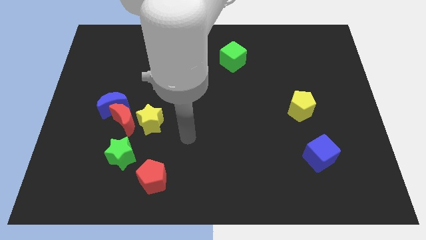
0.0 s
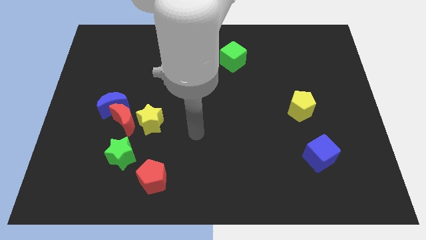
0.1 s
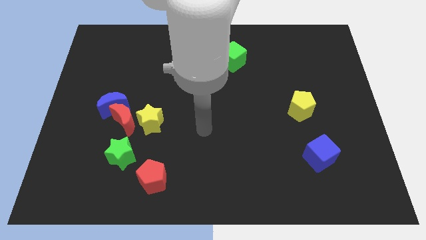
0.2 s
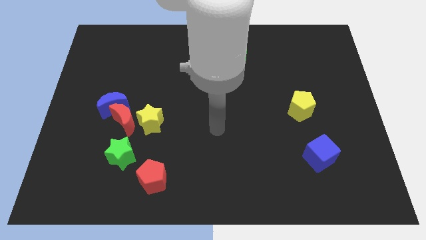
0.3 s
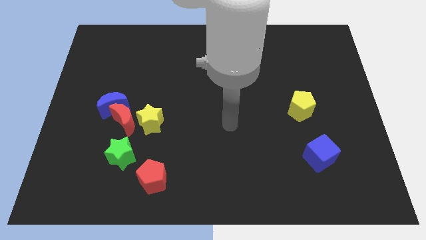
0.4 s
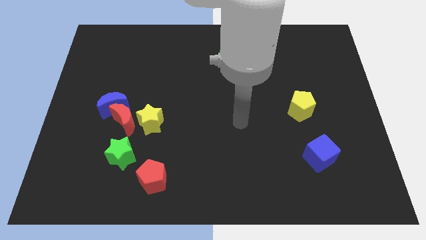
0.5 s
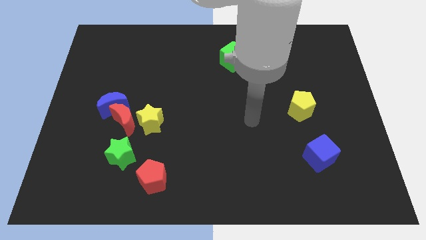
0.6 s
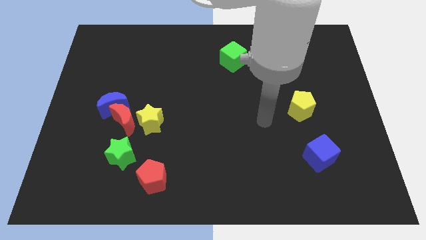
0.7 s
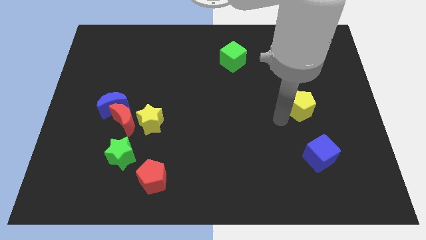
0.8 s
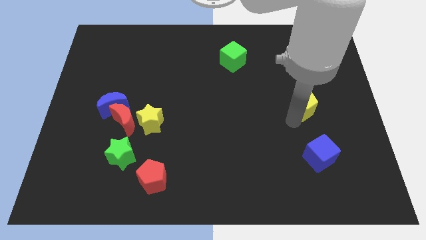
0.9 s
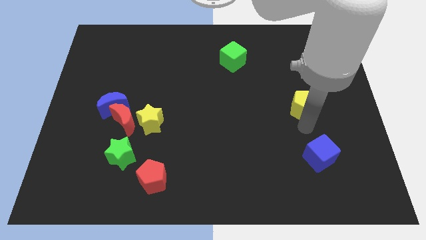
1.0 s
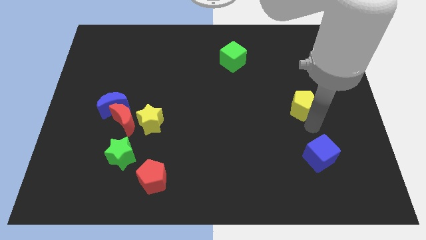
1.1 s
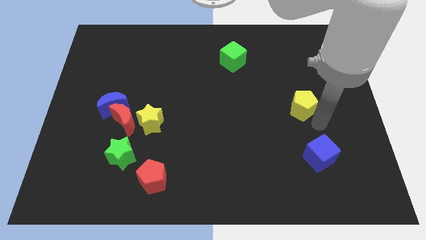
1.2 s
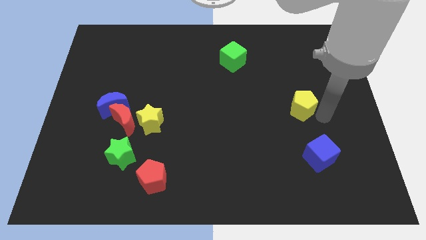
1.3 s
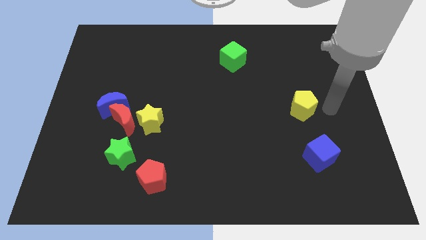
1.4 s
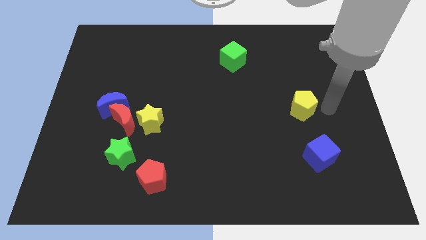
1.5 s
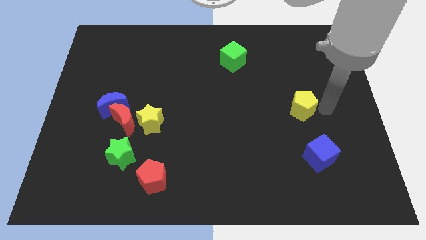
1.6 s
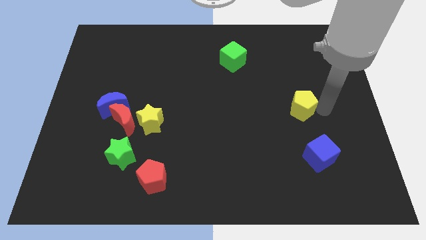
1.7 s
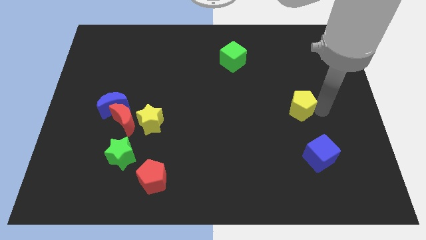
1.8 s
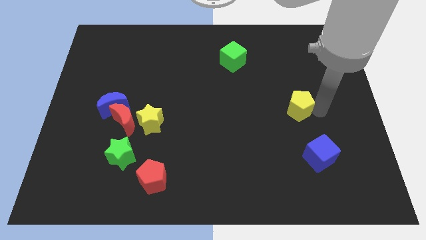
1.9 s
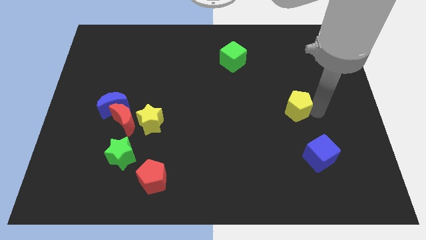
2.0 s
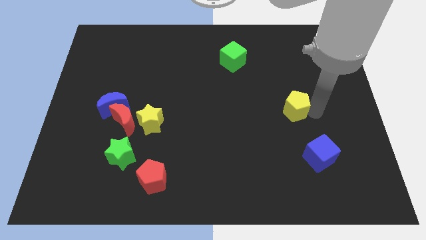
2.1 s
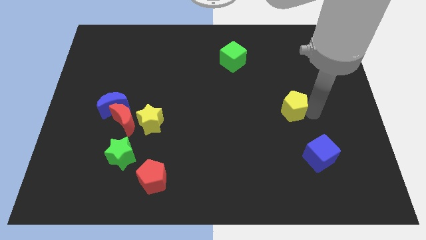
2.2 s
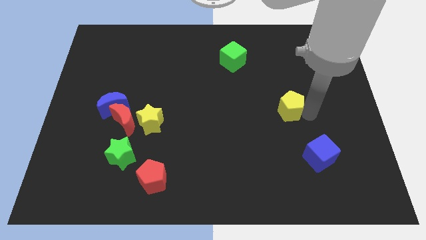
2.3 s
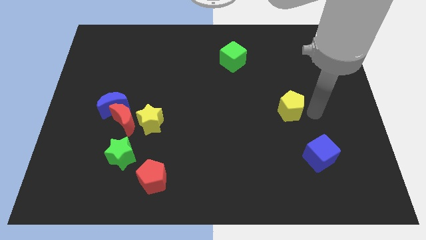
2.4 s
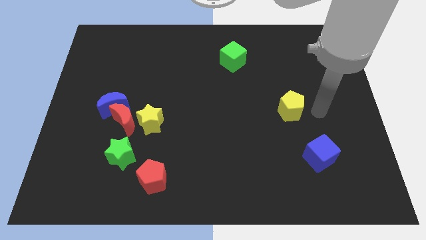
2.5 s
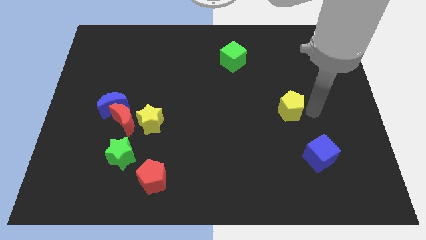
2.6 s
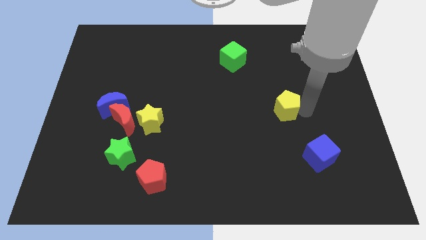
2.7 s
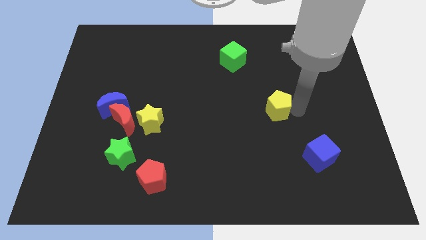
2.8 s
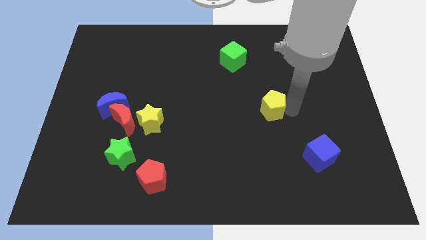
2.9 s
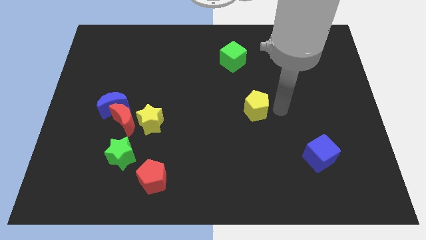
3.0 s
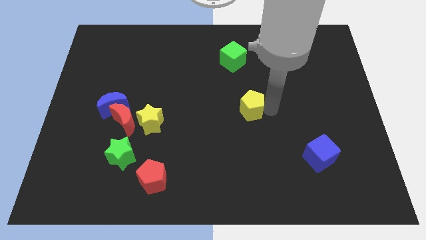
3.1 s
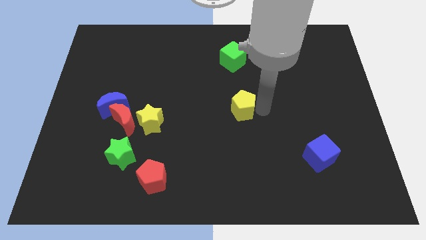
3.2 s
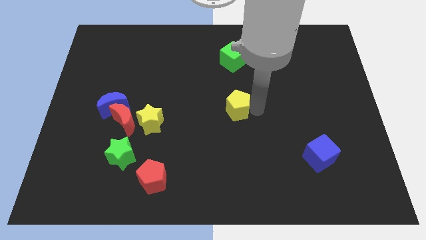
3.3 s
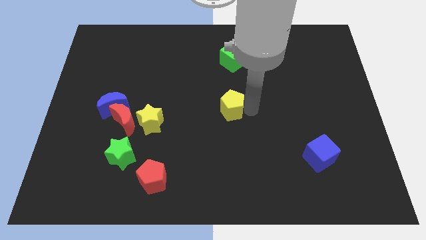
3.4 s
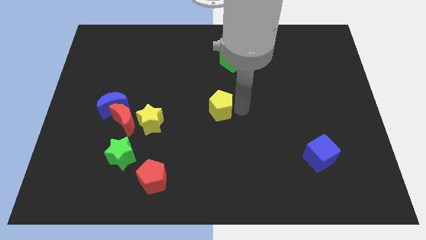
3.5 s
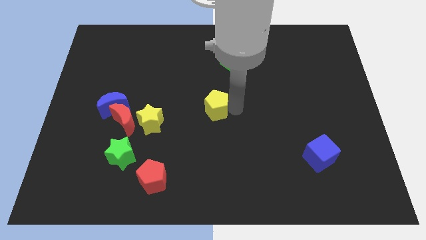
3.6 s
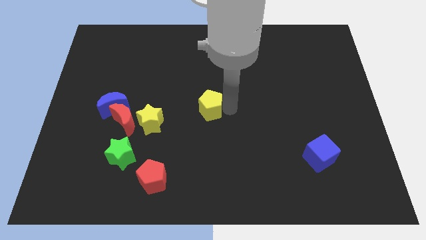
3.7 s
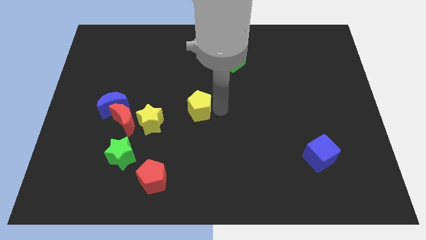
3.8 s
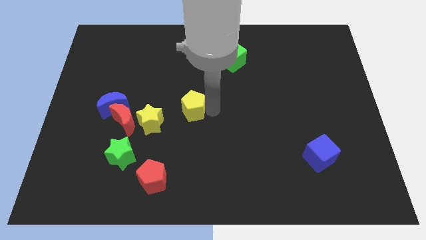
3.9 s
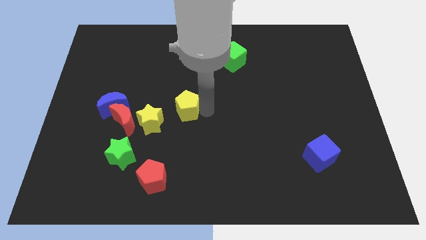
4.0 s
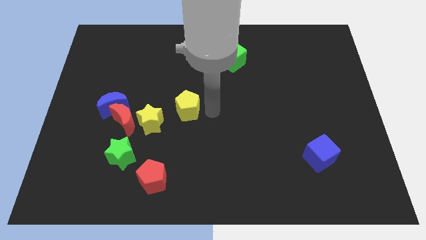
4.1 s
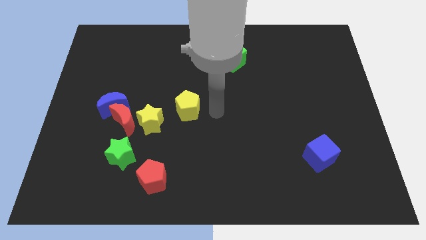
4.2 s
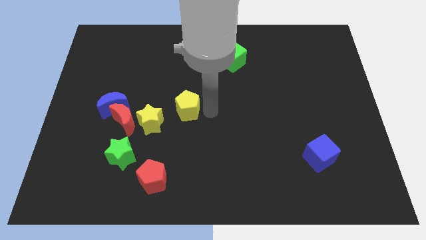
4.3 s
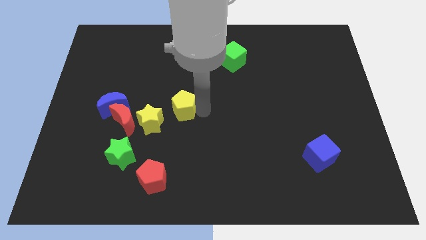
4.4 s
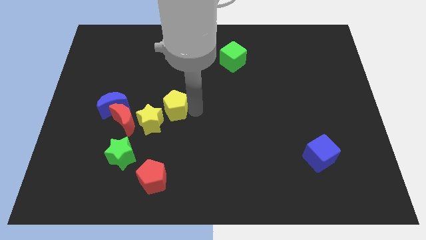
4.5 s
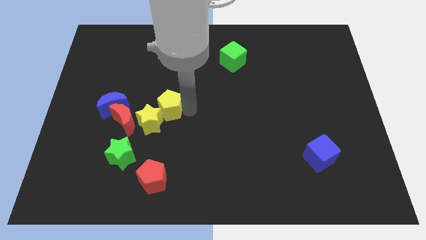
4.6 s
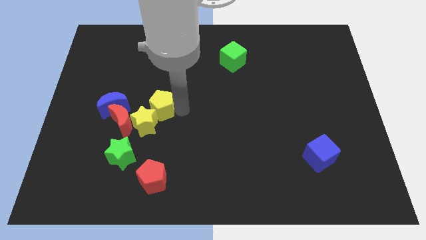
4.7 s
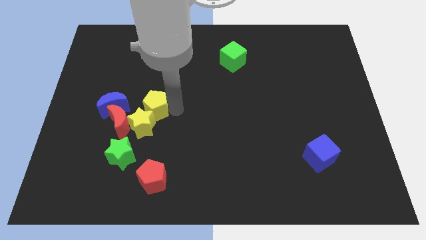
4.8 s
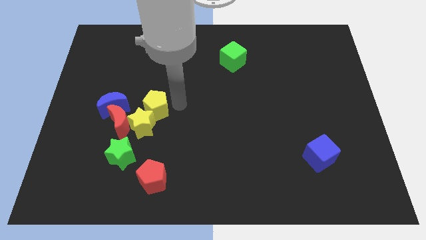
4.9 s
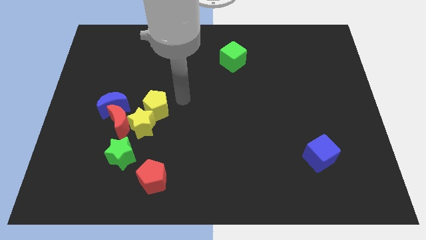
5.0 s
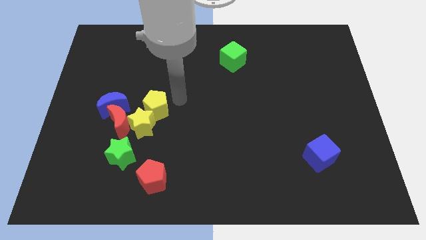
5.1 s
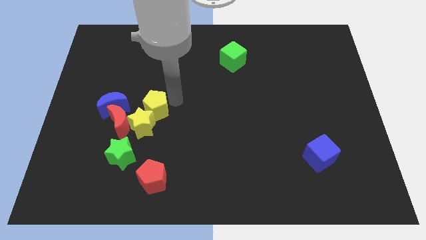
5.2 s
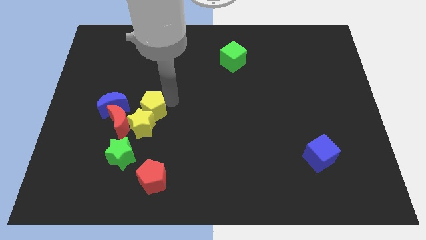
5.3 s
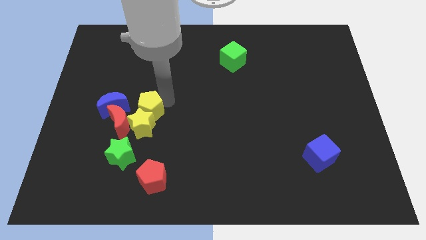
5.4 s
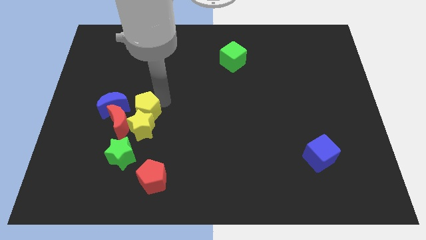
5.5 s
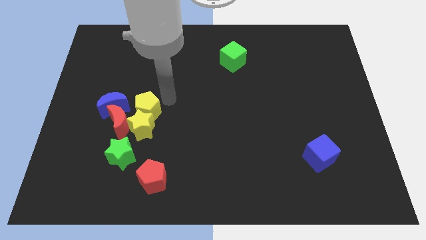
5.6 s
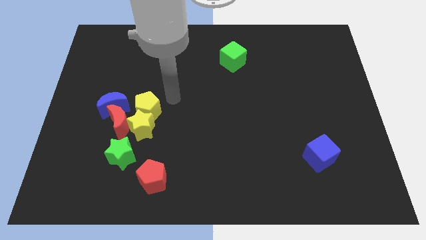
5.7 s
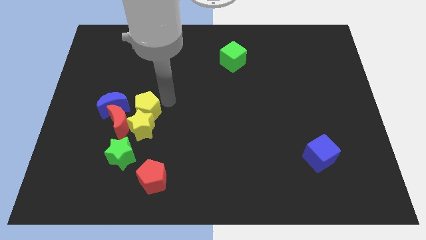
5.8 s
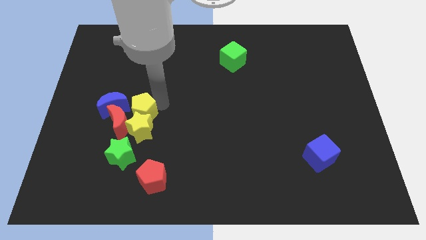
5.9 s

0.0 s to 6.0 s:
put the yellow pentagon to the red moon

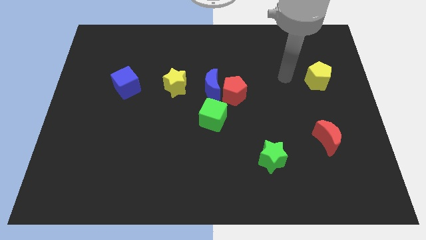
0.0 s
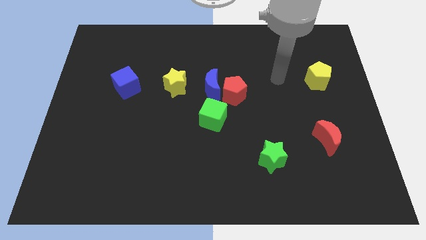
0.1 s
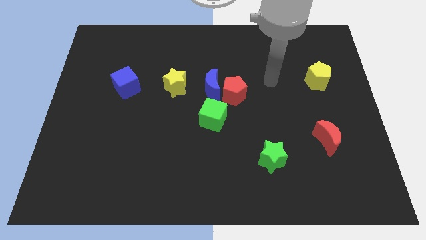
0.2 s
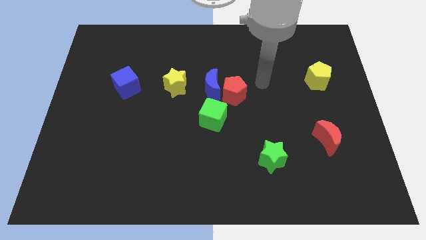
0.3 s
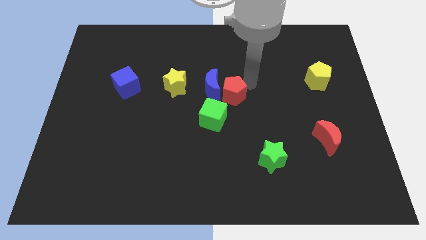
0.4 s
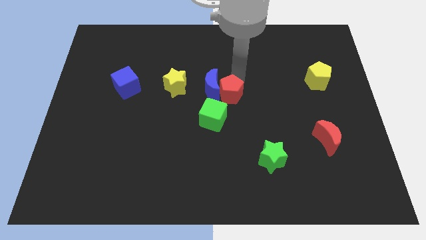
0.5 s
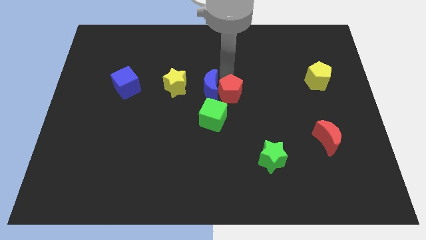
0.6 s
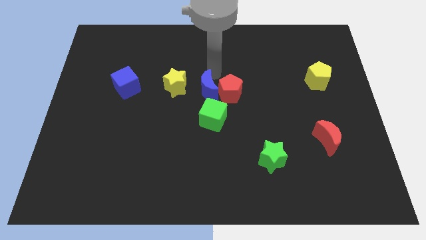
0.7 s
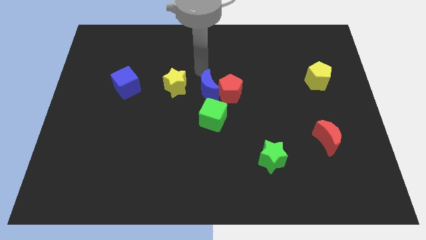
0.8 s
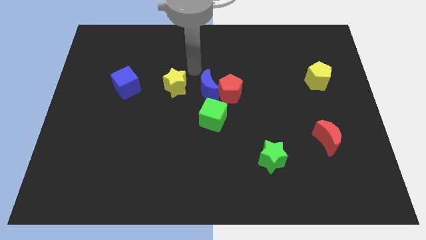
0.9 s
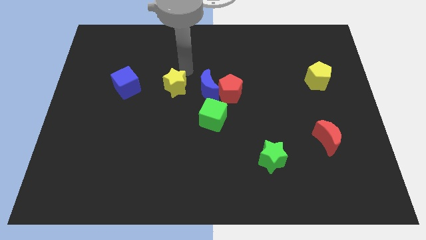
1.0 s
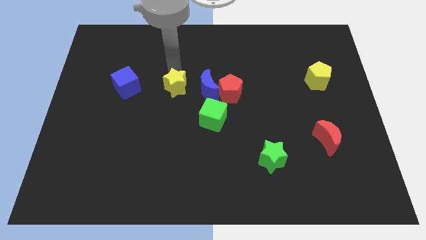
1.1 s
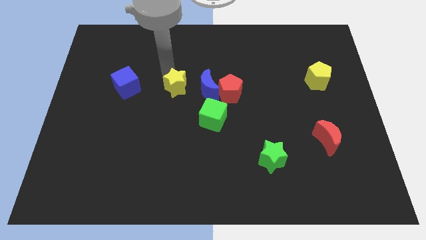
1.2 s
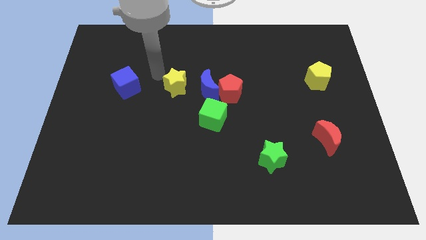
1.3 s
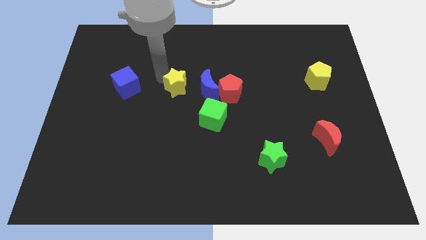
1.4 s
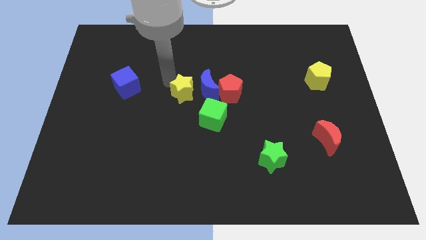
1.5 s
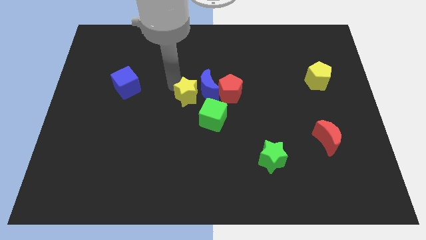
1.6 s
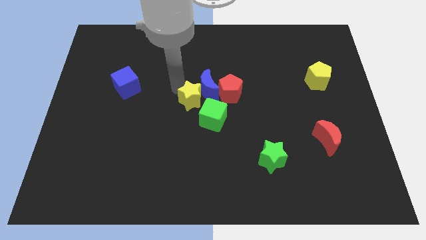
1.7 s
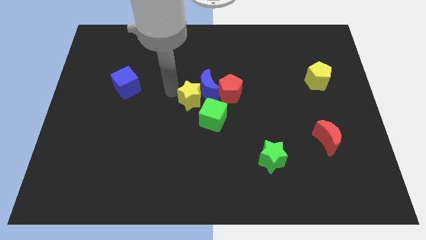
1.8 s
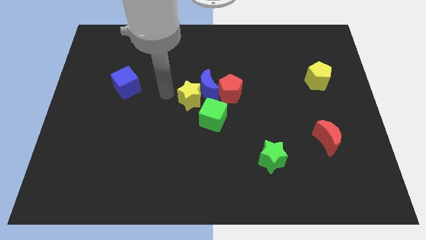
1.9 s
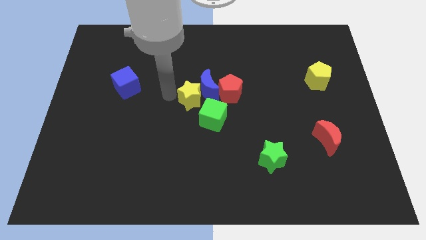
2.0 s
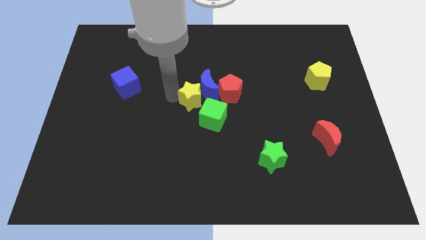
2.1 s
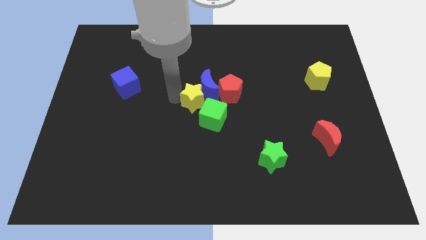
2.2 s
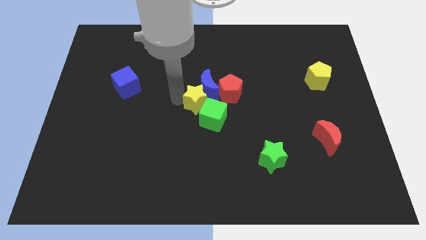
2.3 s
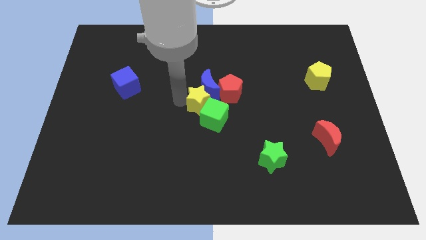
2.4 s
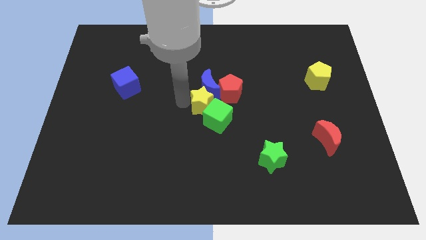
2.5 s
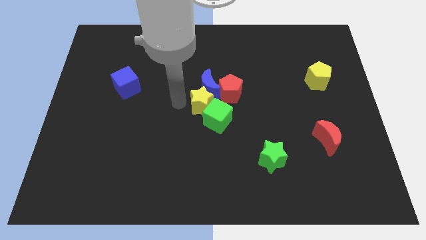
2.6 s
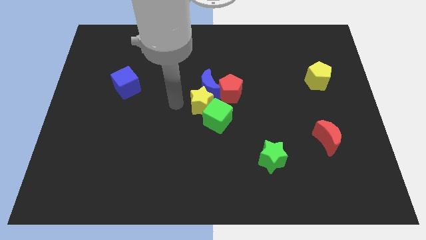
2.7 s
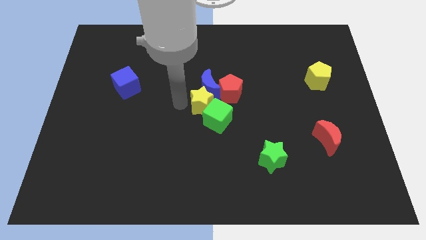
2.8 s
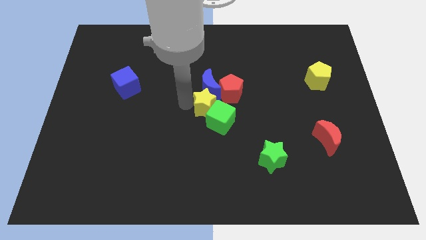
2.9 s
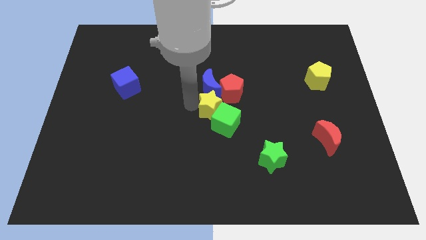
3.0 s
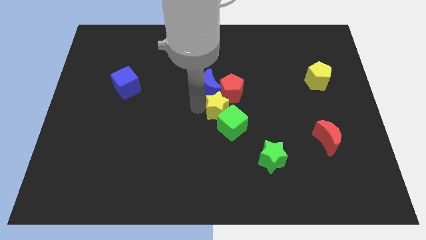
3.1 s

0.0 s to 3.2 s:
move the yellow star to the red pentagon
